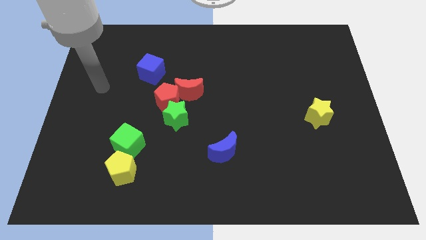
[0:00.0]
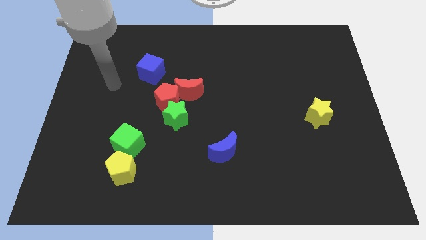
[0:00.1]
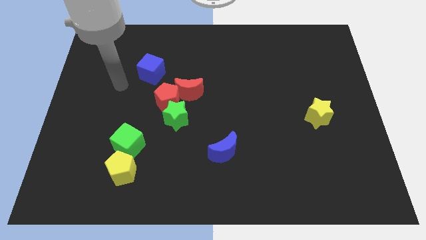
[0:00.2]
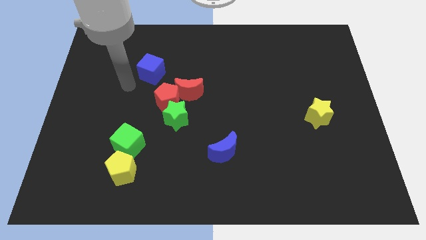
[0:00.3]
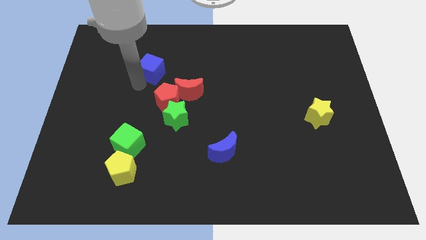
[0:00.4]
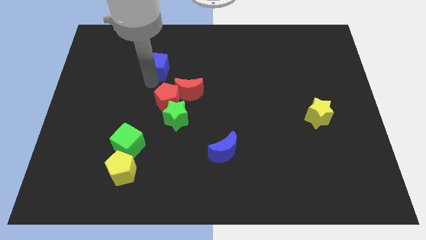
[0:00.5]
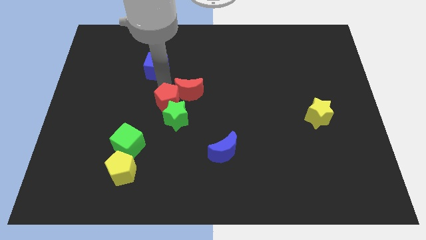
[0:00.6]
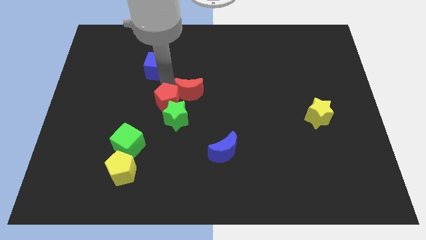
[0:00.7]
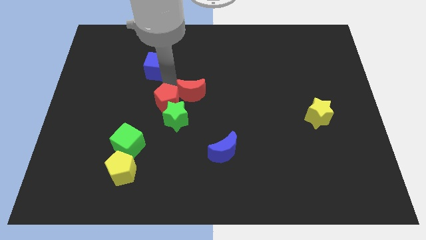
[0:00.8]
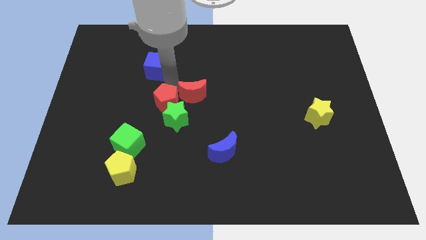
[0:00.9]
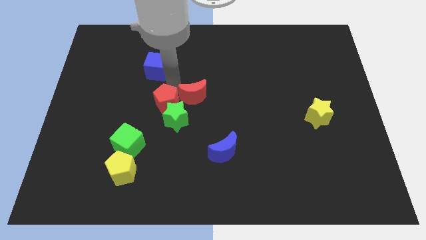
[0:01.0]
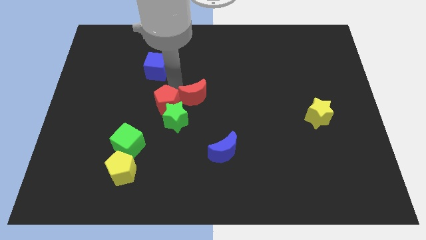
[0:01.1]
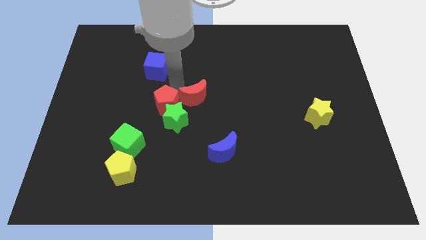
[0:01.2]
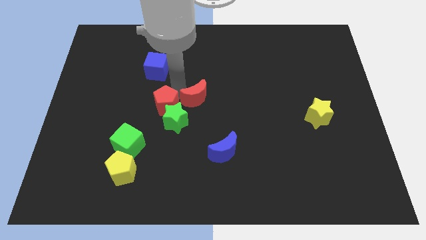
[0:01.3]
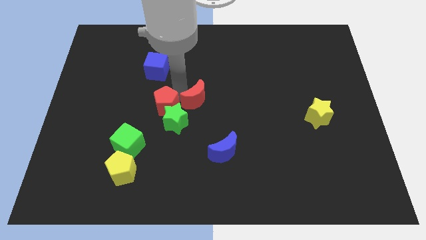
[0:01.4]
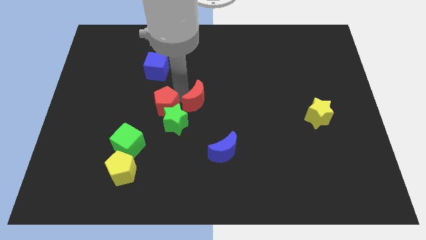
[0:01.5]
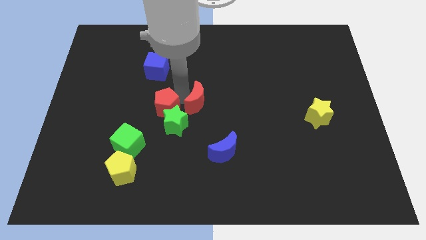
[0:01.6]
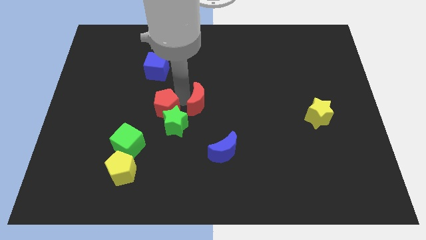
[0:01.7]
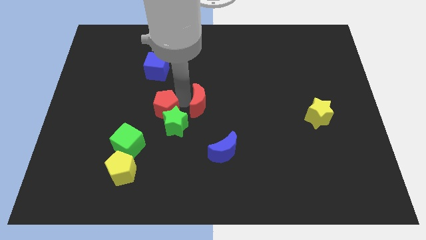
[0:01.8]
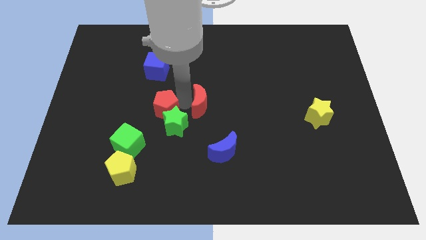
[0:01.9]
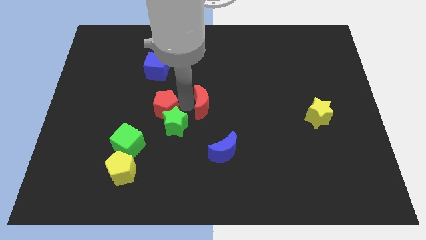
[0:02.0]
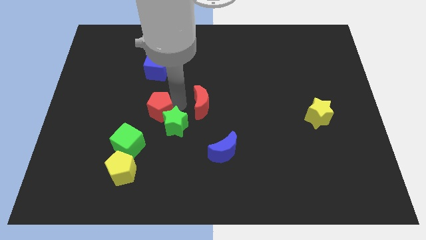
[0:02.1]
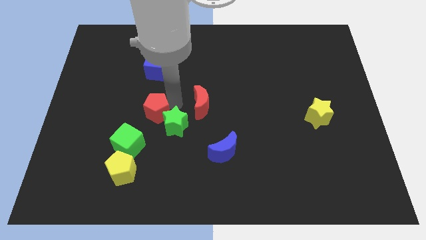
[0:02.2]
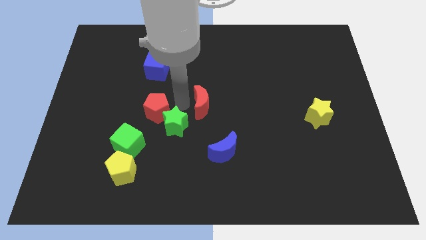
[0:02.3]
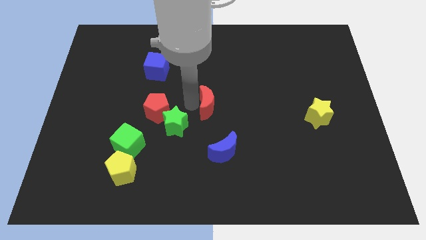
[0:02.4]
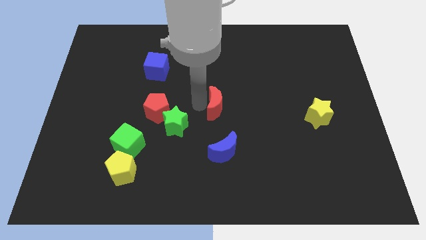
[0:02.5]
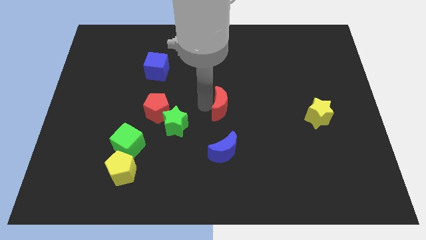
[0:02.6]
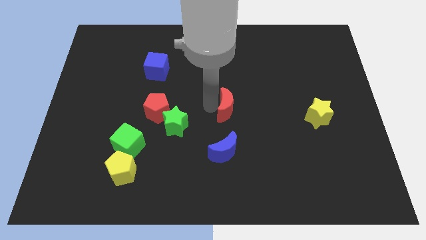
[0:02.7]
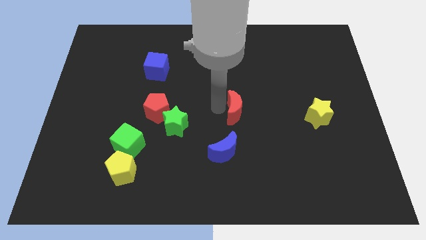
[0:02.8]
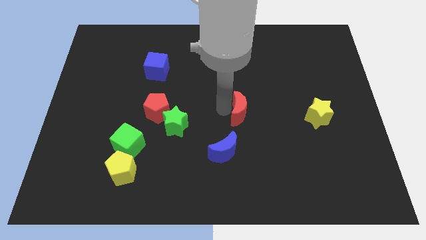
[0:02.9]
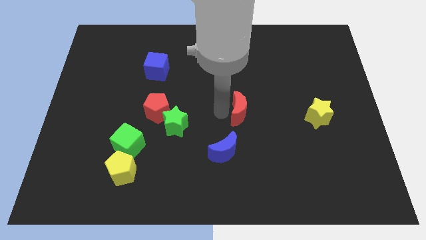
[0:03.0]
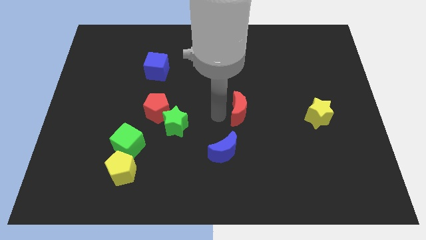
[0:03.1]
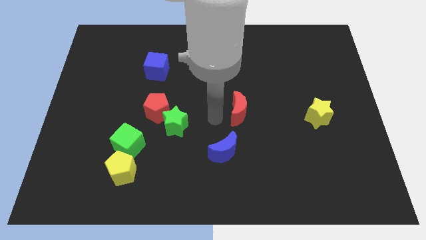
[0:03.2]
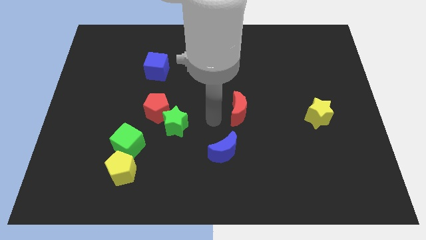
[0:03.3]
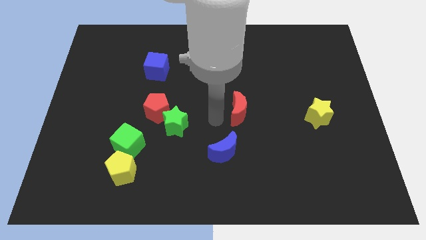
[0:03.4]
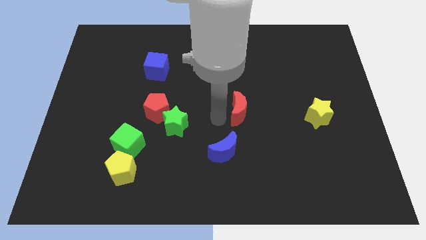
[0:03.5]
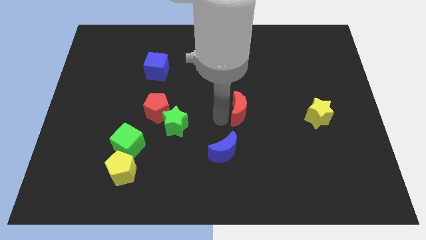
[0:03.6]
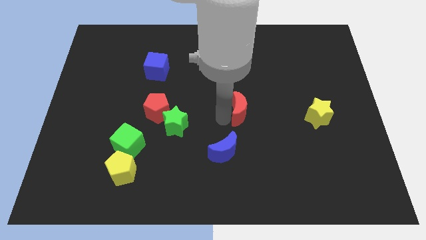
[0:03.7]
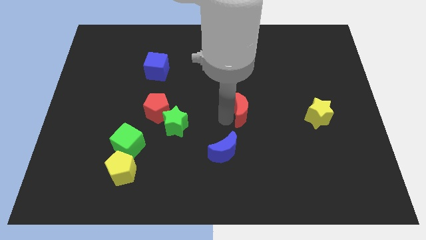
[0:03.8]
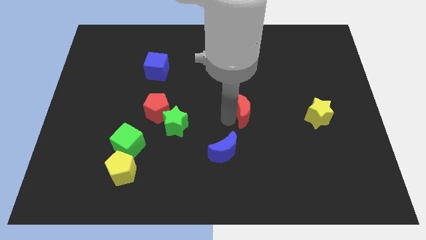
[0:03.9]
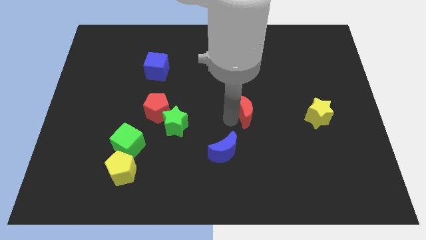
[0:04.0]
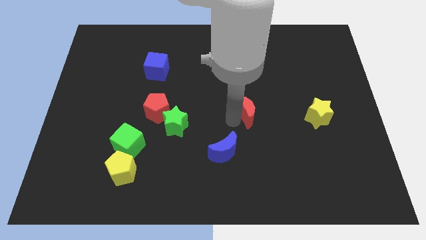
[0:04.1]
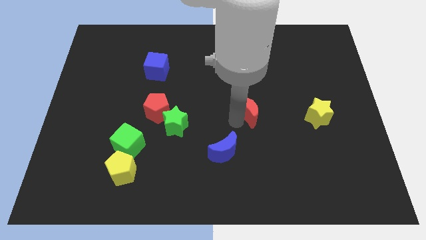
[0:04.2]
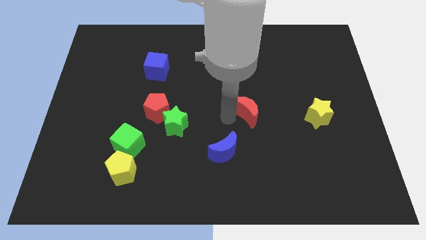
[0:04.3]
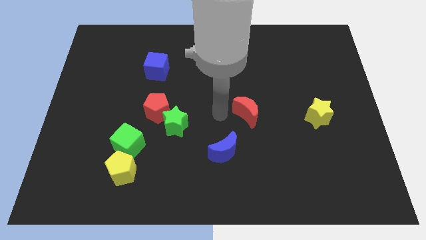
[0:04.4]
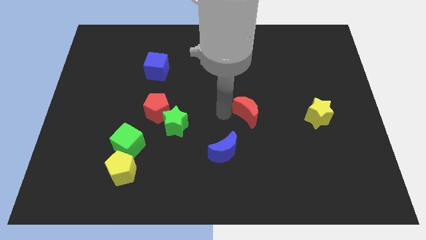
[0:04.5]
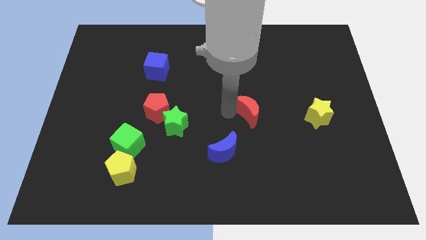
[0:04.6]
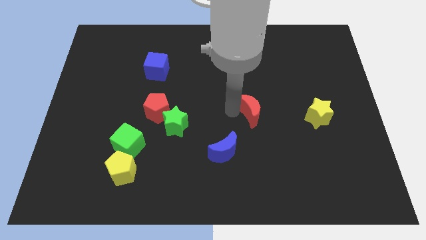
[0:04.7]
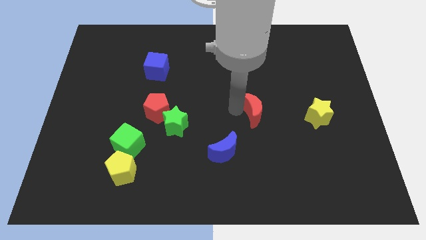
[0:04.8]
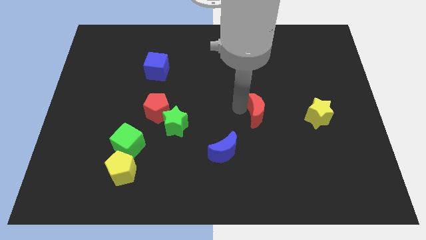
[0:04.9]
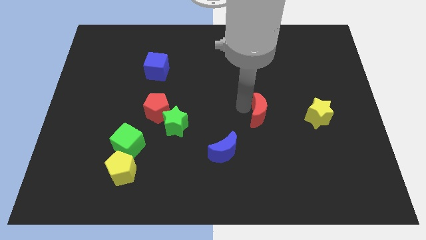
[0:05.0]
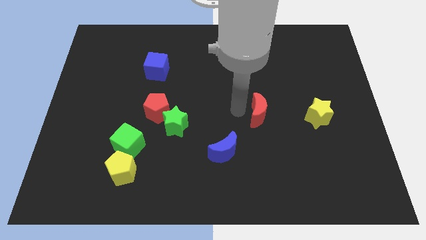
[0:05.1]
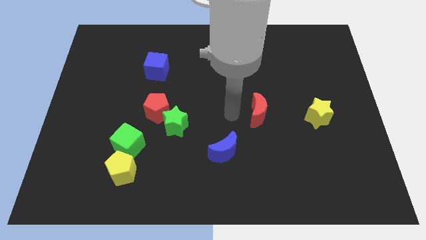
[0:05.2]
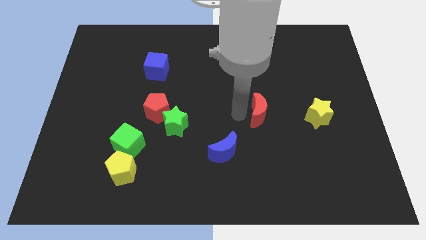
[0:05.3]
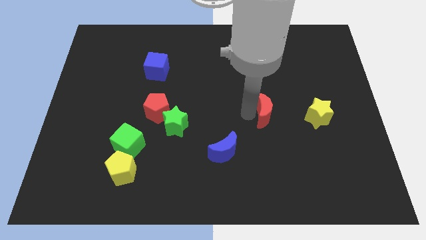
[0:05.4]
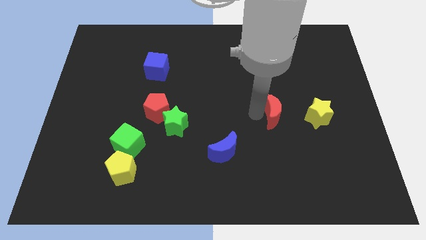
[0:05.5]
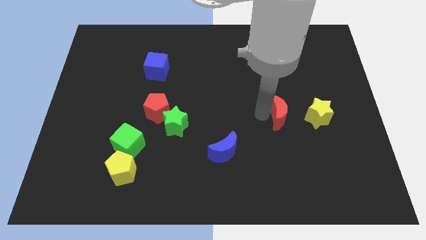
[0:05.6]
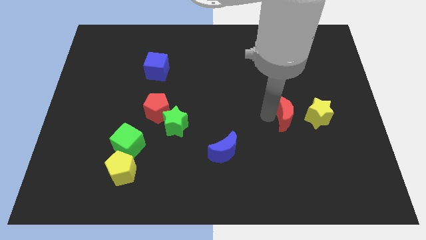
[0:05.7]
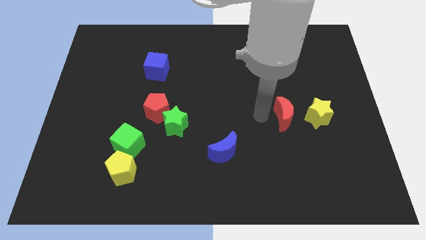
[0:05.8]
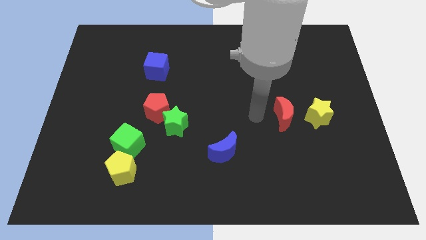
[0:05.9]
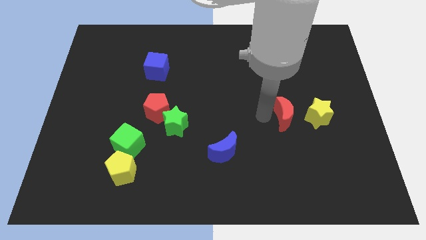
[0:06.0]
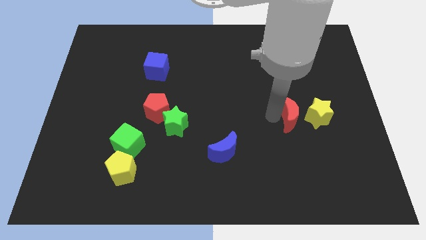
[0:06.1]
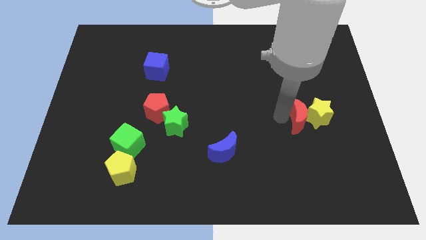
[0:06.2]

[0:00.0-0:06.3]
push the red moon close to the yellow star

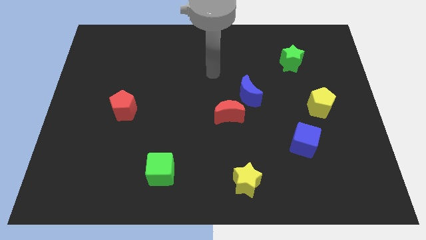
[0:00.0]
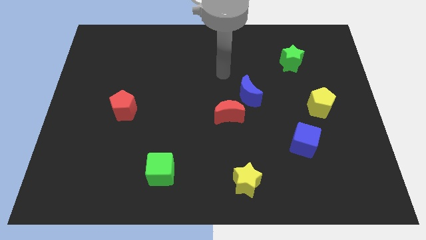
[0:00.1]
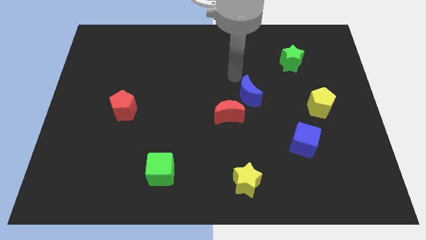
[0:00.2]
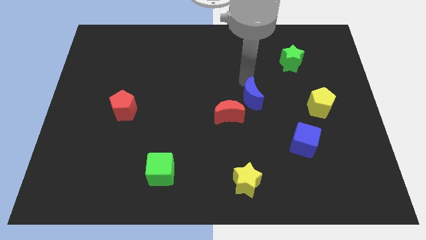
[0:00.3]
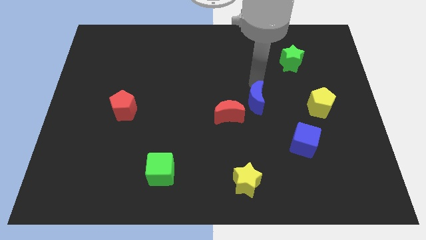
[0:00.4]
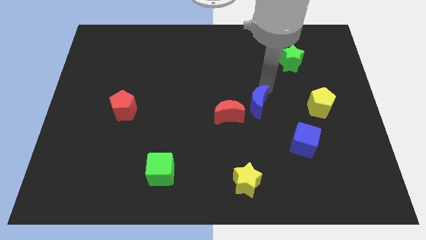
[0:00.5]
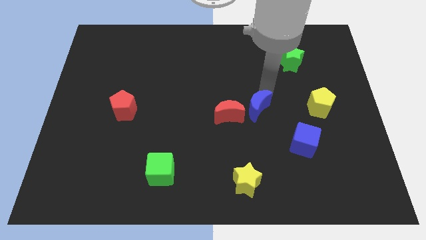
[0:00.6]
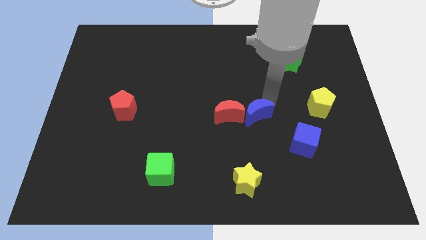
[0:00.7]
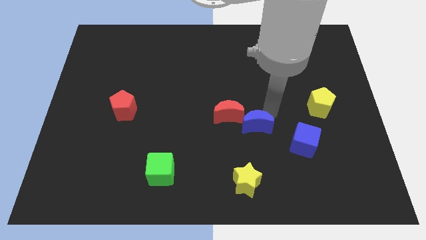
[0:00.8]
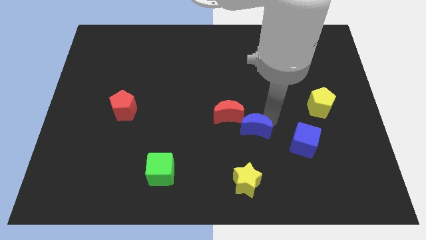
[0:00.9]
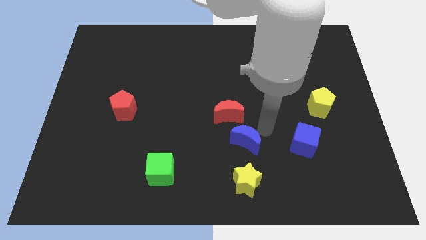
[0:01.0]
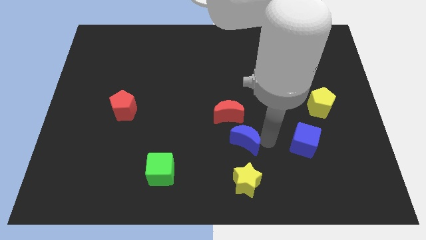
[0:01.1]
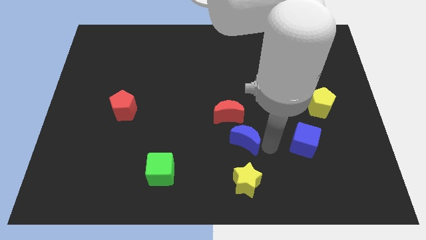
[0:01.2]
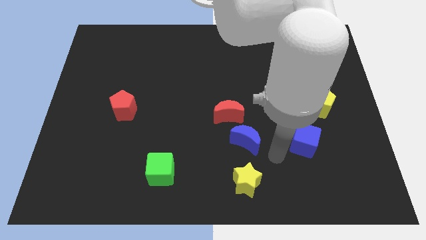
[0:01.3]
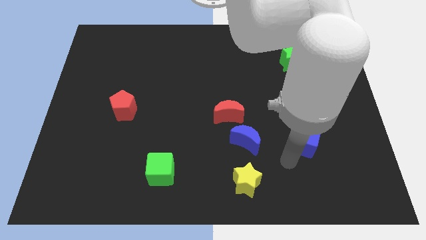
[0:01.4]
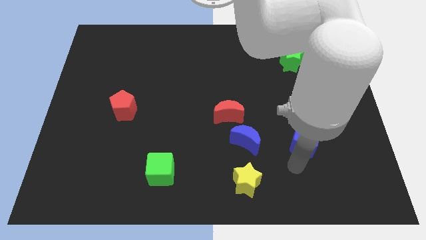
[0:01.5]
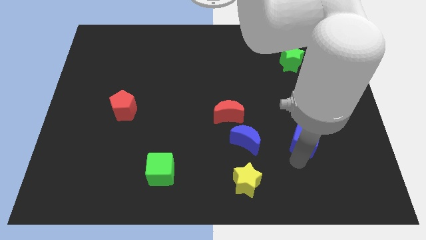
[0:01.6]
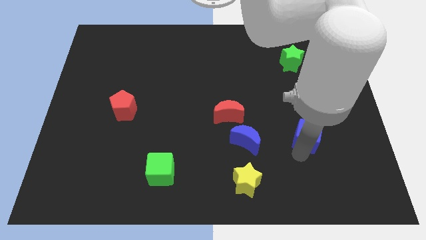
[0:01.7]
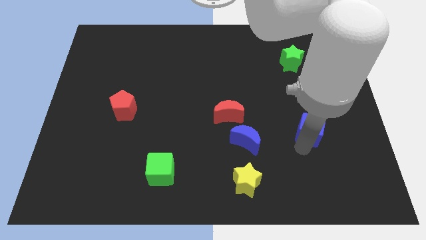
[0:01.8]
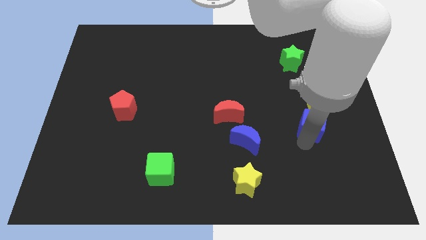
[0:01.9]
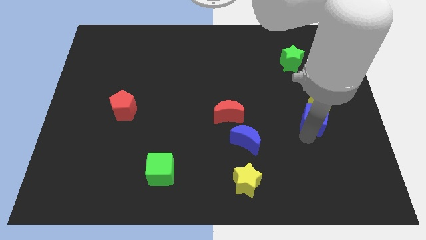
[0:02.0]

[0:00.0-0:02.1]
slide the blue cube to the yellow pentagon
